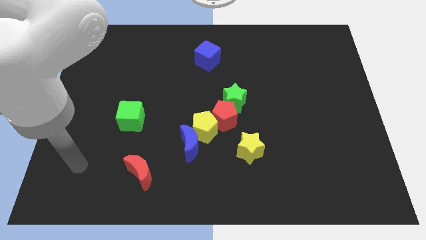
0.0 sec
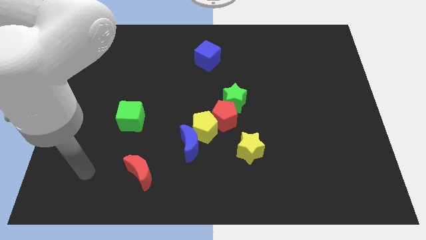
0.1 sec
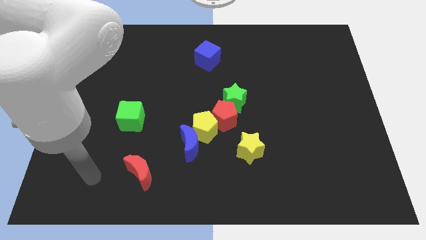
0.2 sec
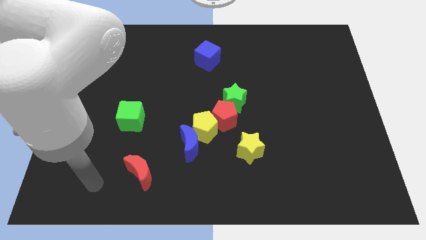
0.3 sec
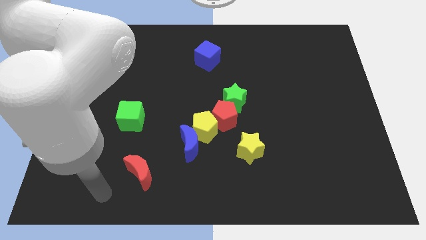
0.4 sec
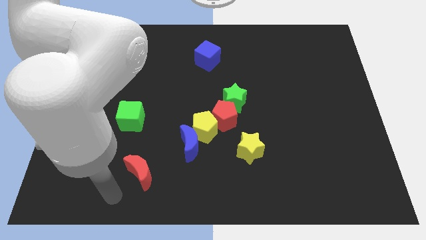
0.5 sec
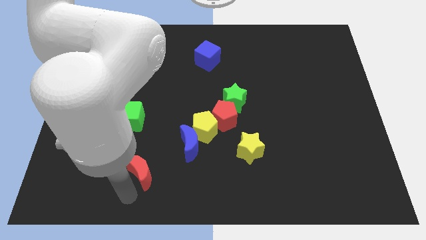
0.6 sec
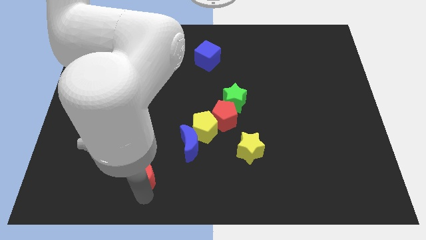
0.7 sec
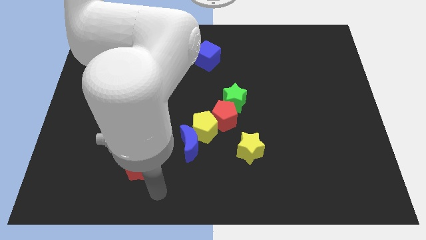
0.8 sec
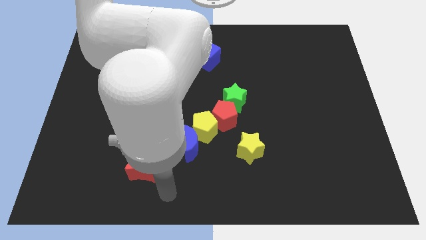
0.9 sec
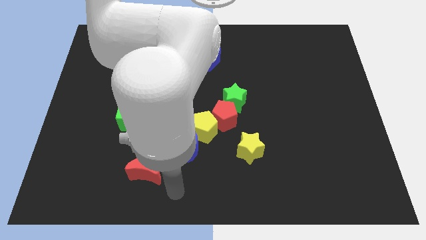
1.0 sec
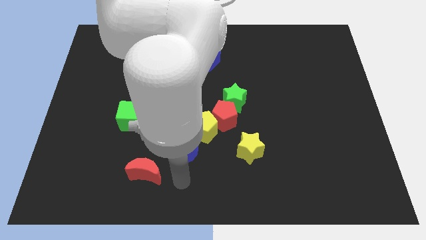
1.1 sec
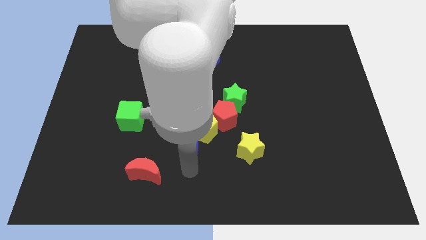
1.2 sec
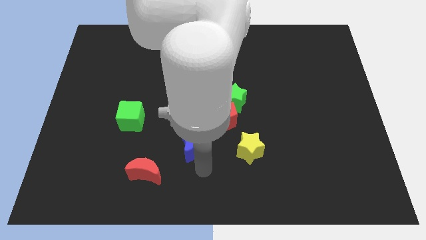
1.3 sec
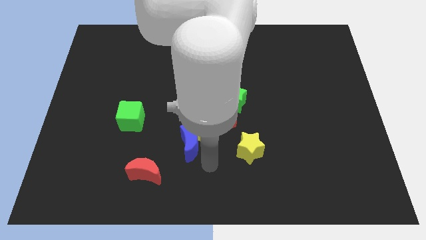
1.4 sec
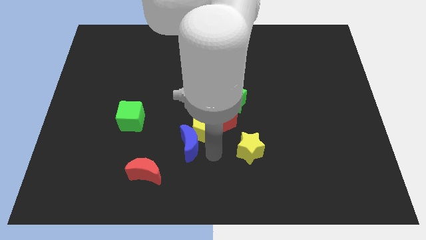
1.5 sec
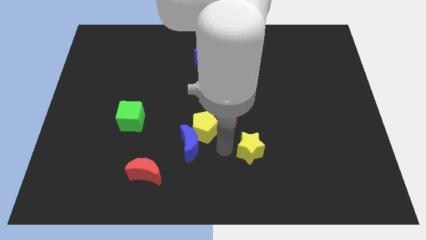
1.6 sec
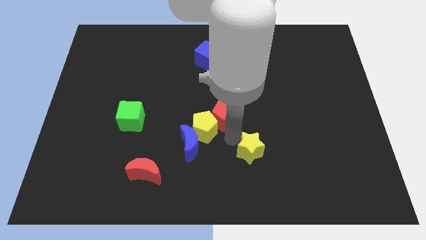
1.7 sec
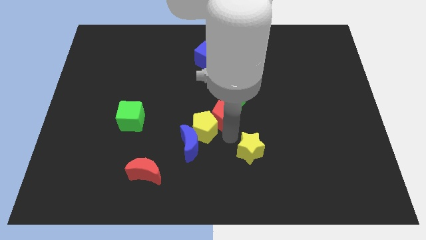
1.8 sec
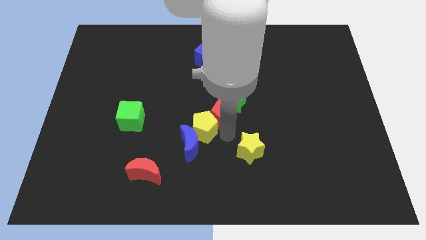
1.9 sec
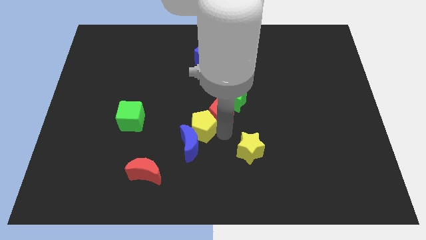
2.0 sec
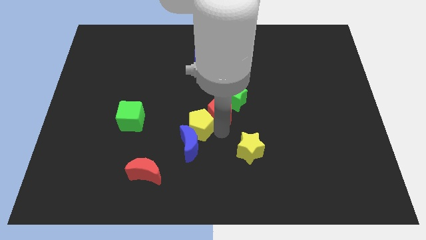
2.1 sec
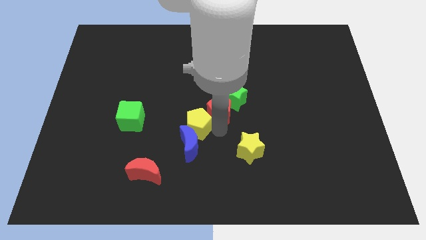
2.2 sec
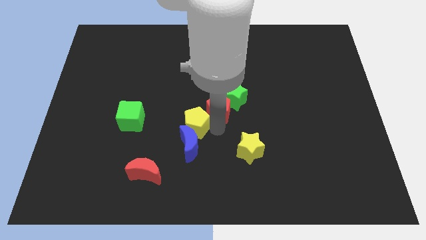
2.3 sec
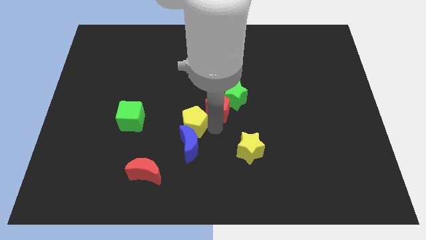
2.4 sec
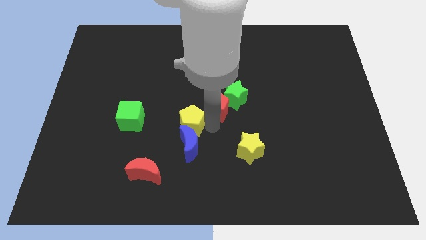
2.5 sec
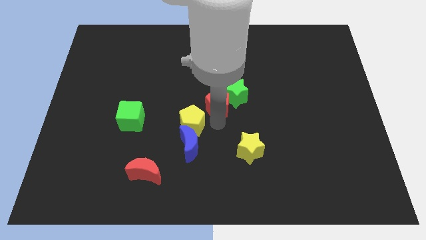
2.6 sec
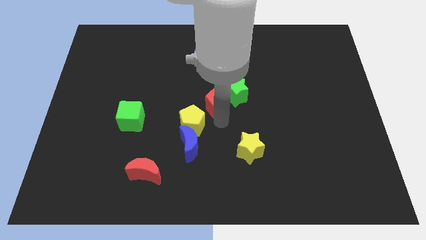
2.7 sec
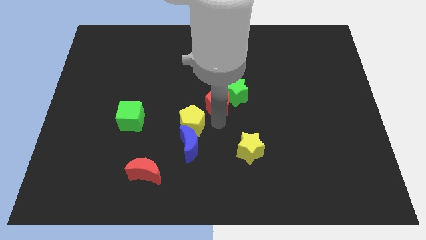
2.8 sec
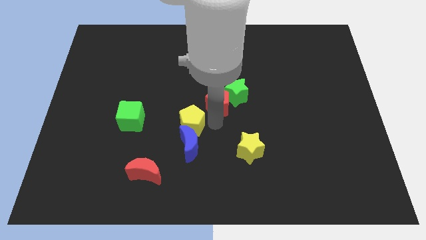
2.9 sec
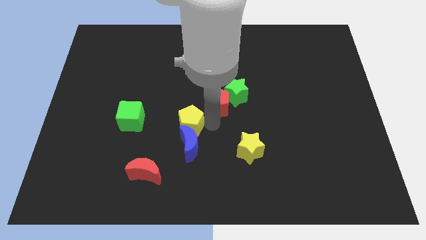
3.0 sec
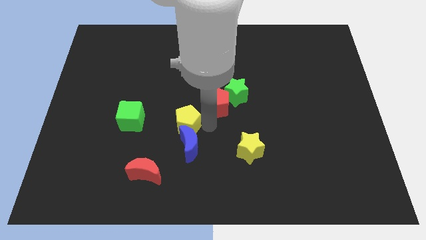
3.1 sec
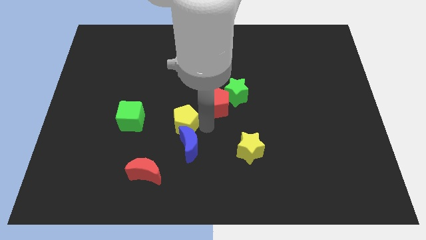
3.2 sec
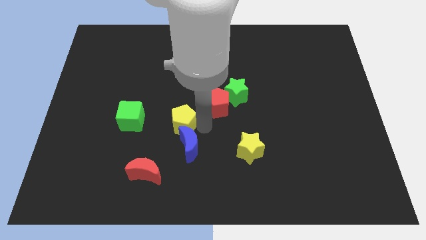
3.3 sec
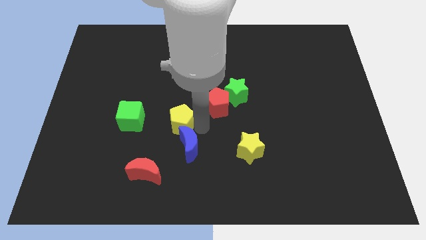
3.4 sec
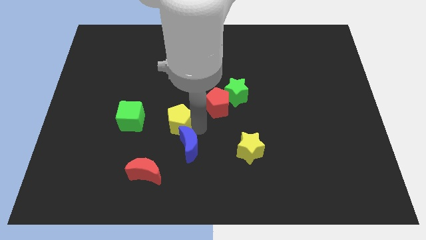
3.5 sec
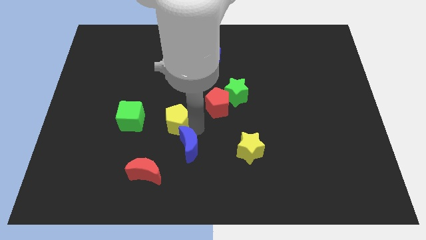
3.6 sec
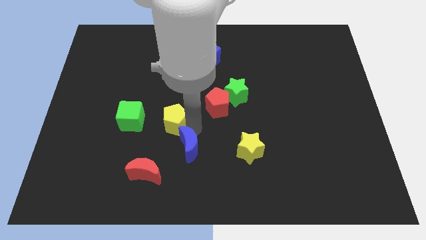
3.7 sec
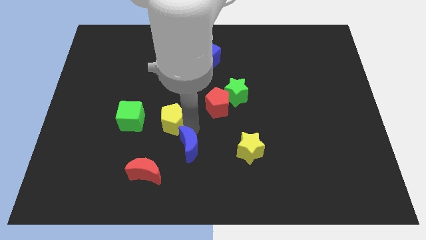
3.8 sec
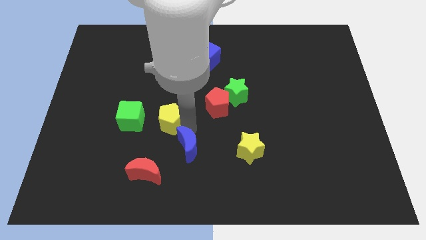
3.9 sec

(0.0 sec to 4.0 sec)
separate the yellow pentagon from the group

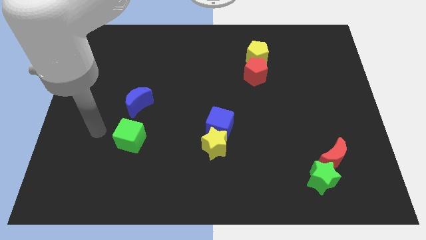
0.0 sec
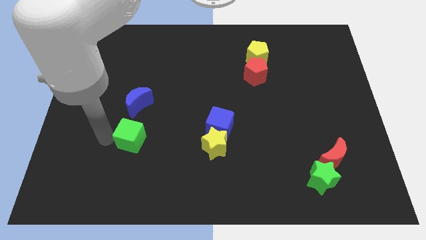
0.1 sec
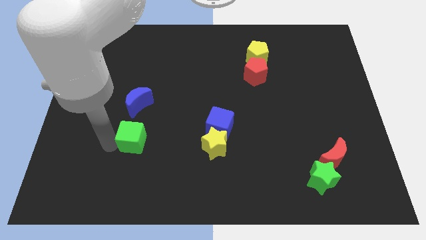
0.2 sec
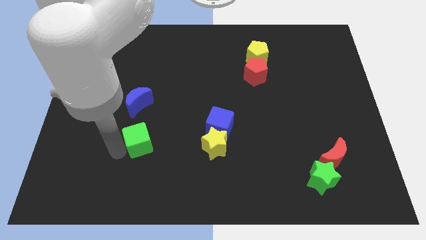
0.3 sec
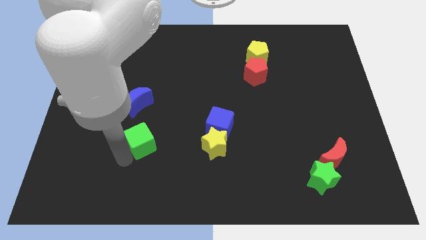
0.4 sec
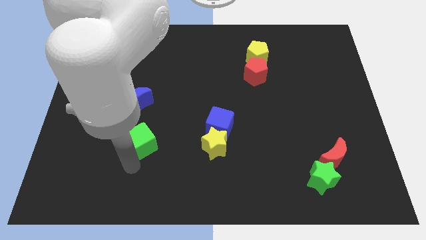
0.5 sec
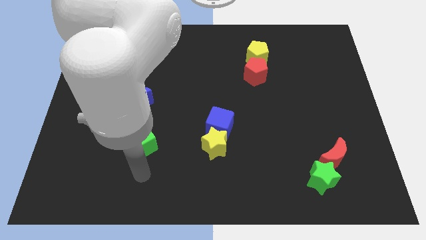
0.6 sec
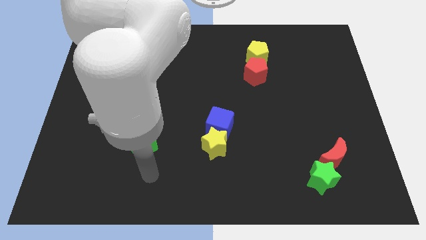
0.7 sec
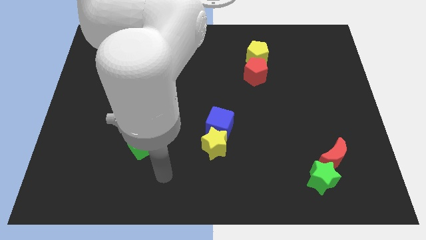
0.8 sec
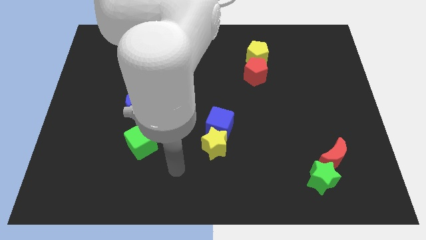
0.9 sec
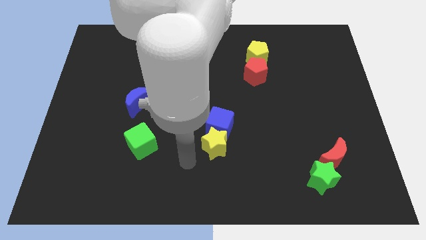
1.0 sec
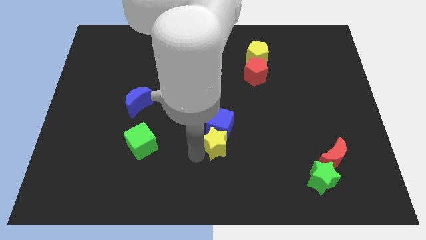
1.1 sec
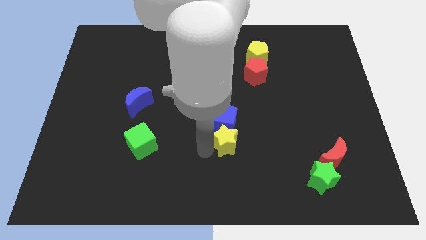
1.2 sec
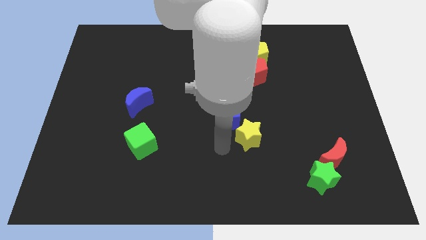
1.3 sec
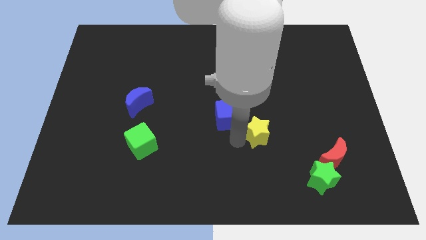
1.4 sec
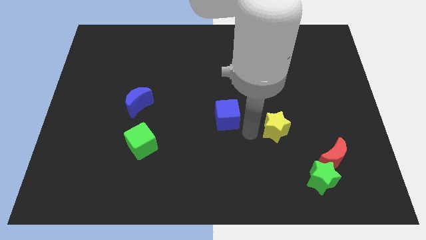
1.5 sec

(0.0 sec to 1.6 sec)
pull the blue cube apart from the yellow star

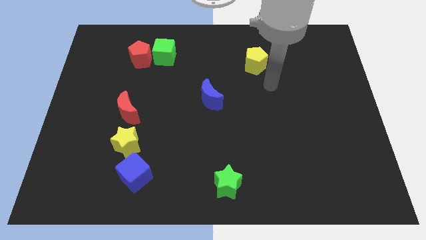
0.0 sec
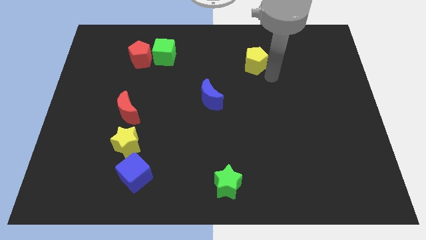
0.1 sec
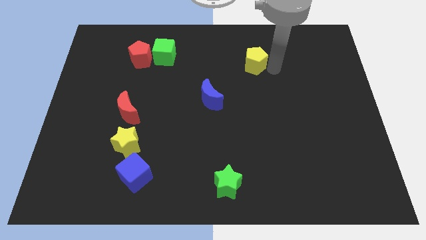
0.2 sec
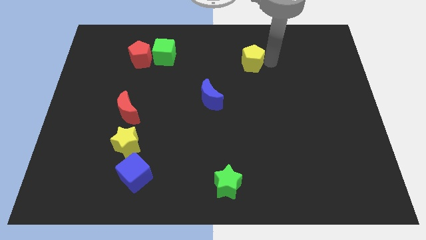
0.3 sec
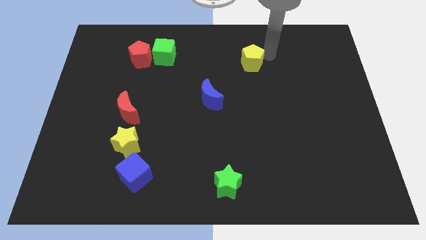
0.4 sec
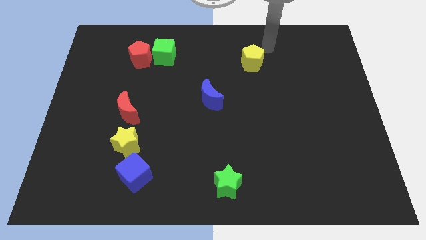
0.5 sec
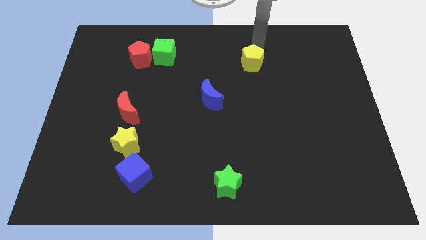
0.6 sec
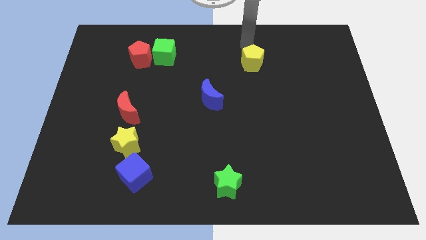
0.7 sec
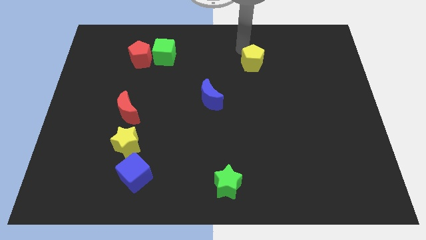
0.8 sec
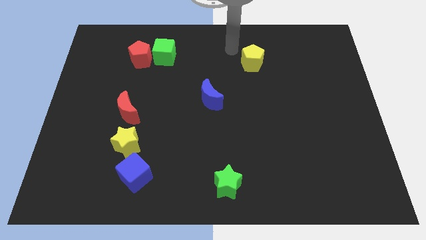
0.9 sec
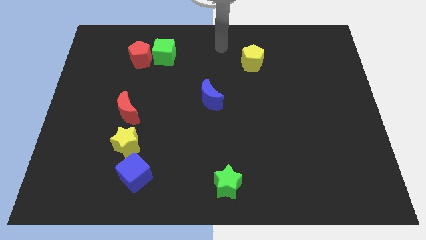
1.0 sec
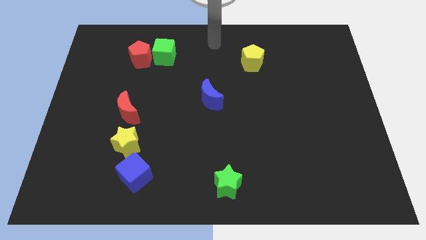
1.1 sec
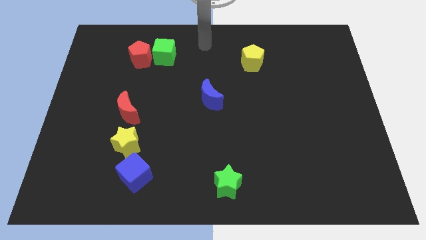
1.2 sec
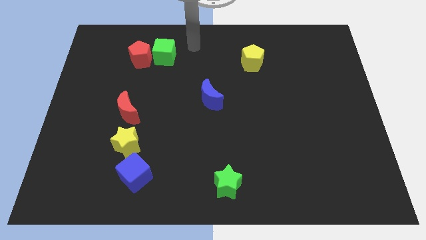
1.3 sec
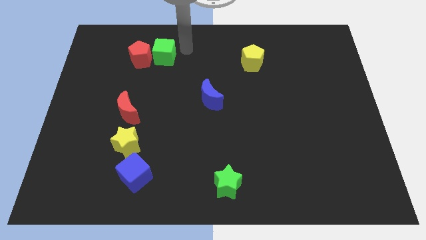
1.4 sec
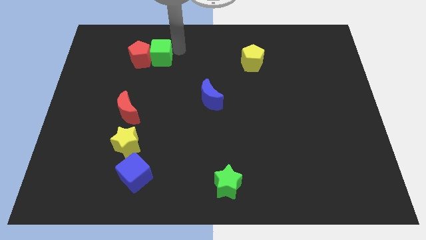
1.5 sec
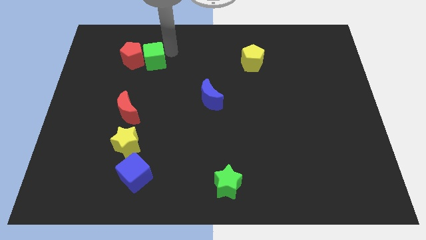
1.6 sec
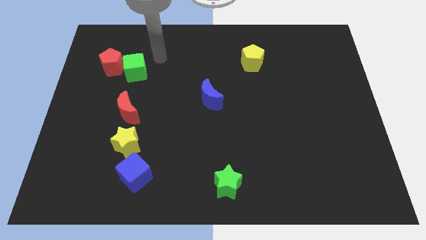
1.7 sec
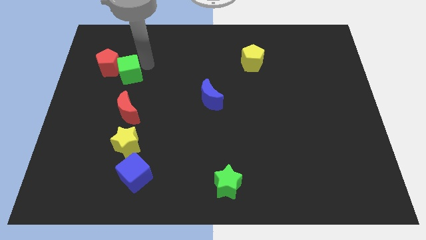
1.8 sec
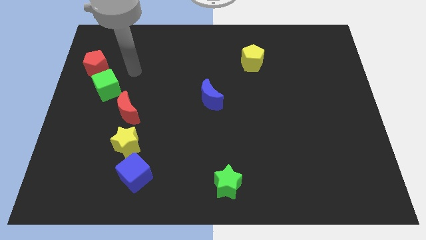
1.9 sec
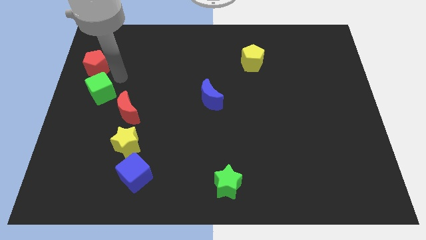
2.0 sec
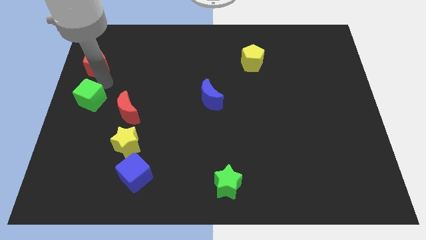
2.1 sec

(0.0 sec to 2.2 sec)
move the red pentagon away from the green cube

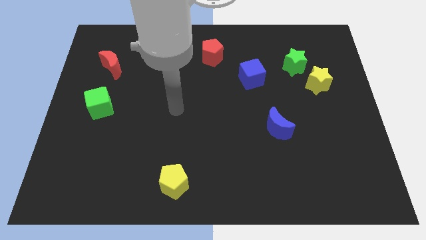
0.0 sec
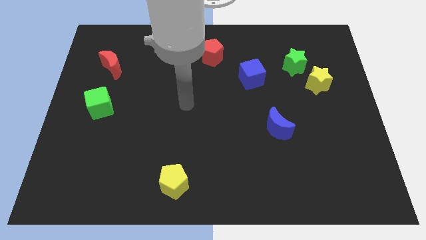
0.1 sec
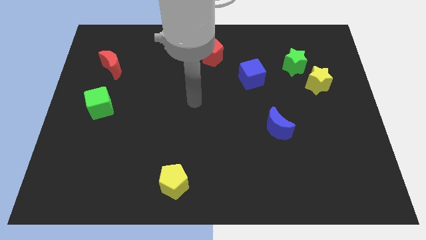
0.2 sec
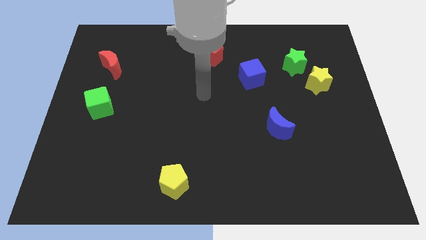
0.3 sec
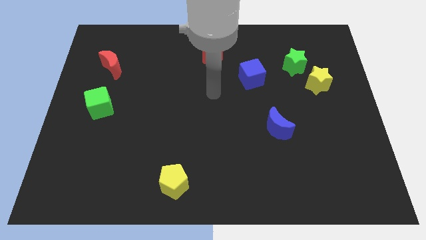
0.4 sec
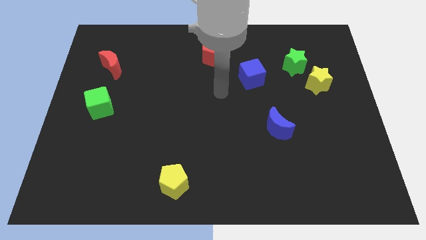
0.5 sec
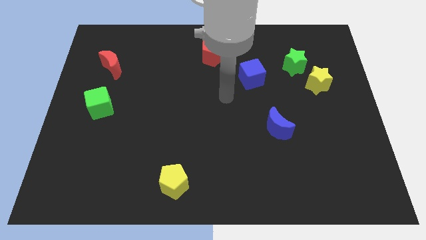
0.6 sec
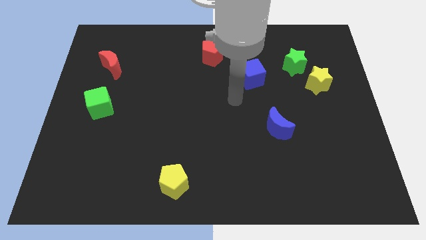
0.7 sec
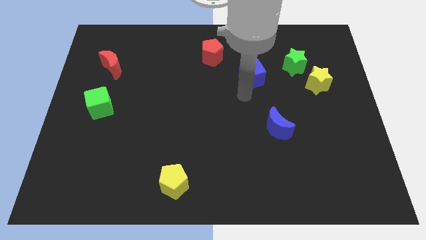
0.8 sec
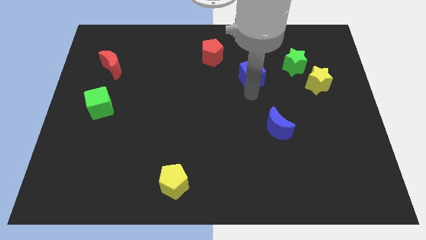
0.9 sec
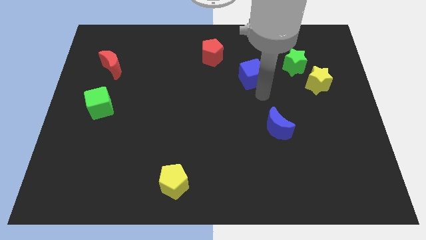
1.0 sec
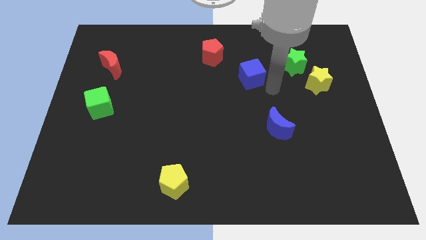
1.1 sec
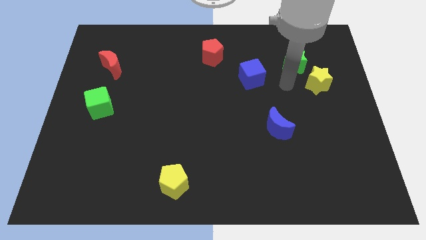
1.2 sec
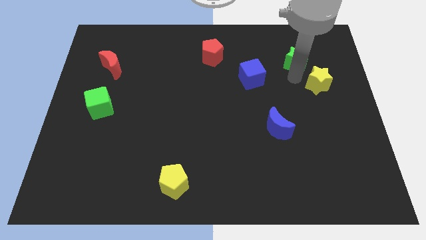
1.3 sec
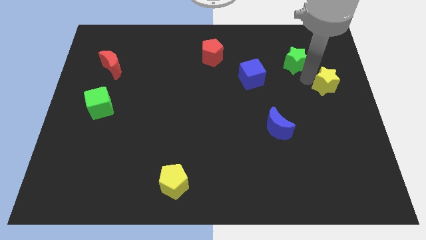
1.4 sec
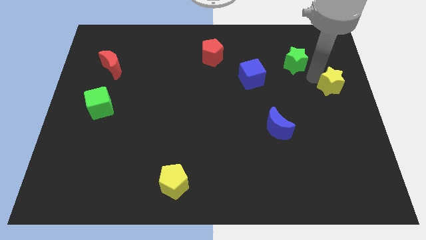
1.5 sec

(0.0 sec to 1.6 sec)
pull the green star apart from the yellow star
